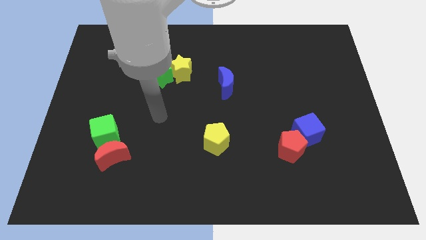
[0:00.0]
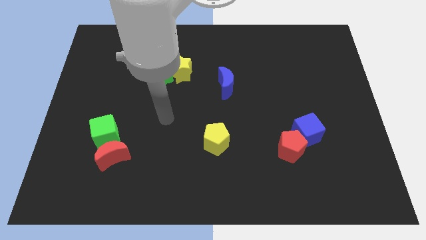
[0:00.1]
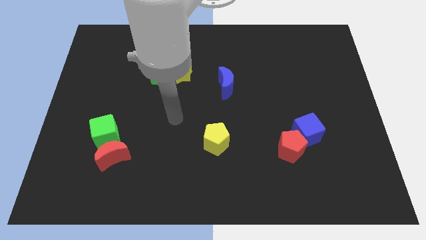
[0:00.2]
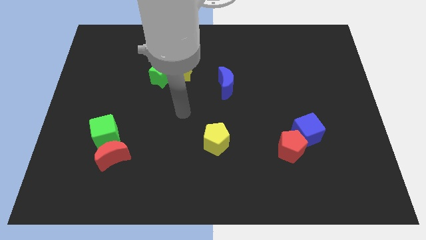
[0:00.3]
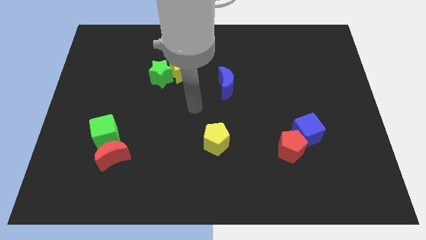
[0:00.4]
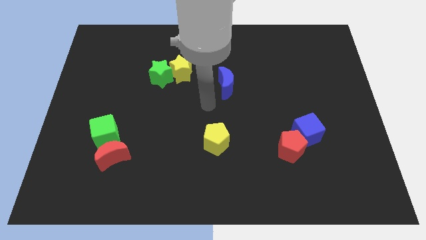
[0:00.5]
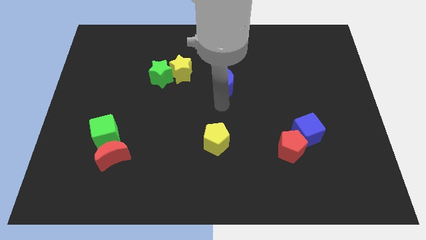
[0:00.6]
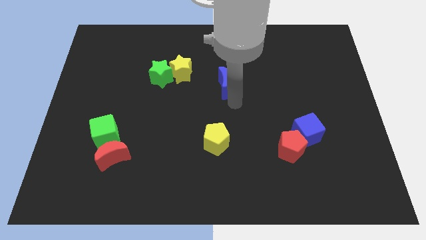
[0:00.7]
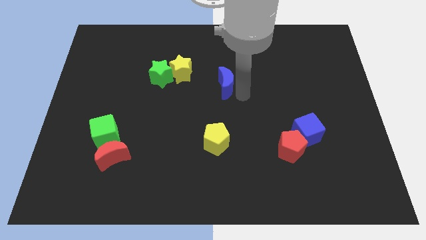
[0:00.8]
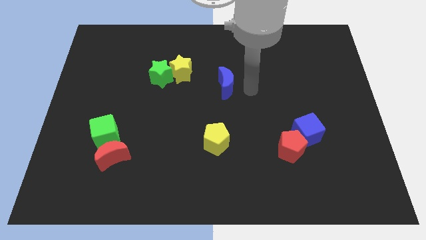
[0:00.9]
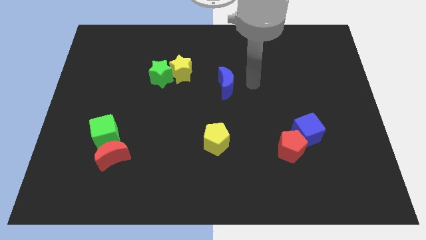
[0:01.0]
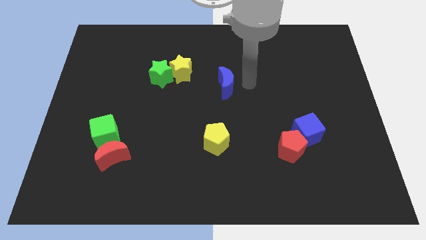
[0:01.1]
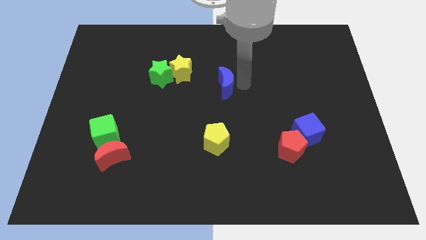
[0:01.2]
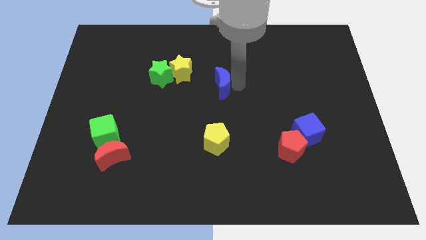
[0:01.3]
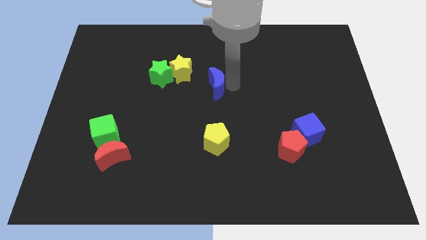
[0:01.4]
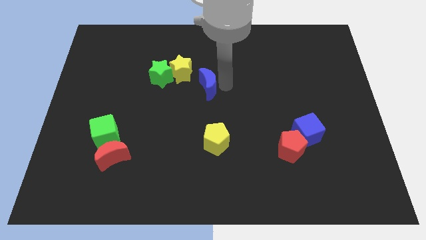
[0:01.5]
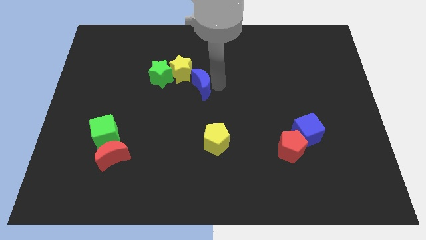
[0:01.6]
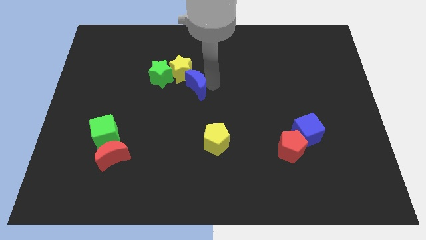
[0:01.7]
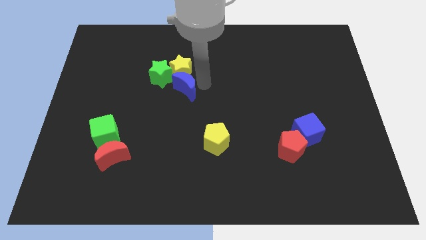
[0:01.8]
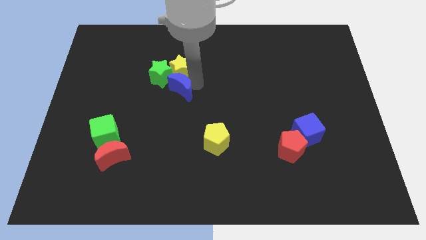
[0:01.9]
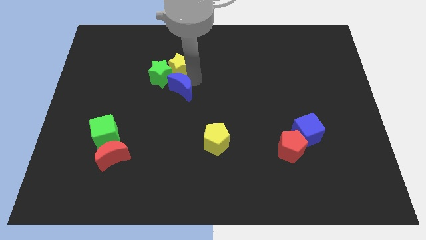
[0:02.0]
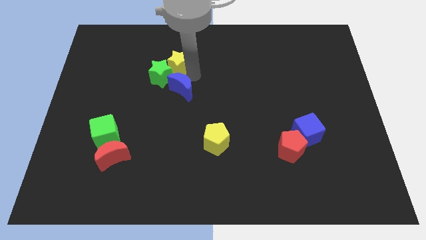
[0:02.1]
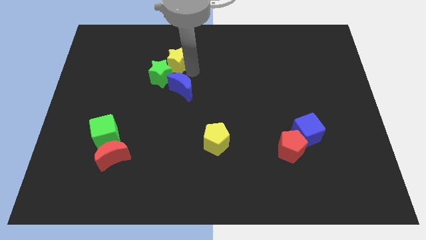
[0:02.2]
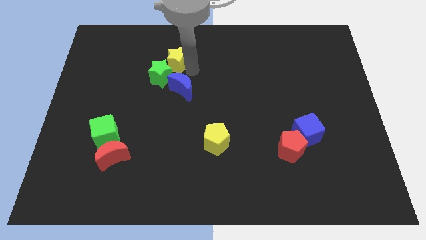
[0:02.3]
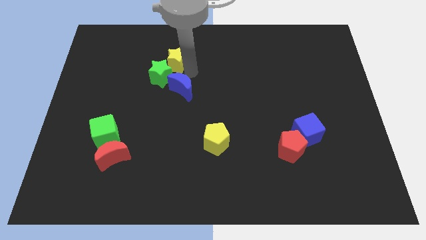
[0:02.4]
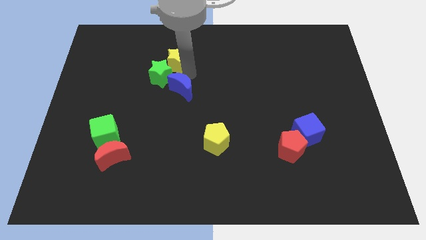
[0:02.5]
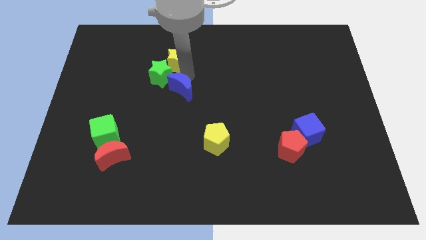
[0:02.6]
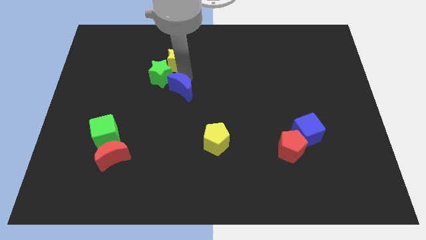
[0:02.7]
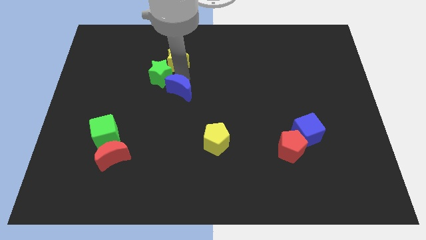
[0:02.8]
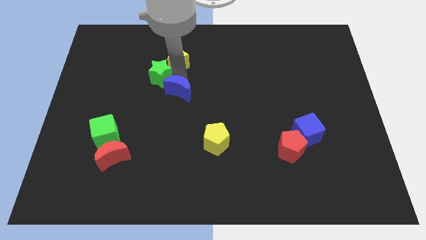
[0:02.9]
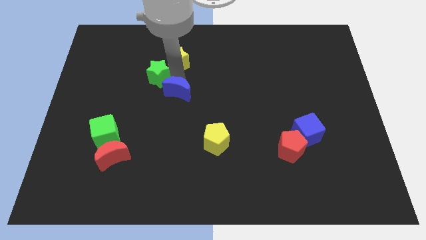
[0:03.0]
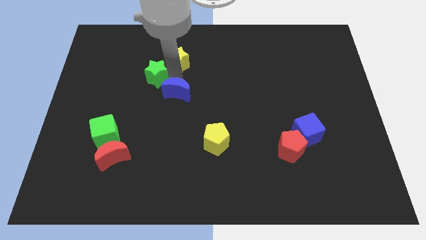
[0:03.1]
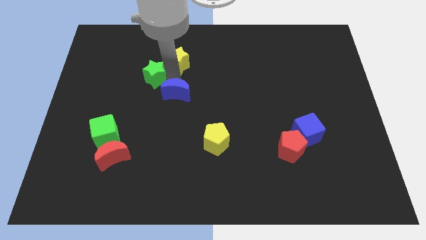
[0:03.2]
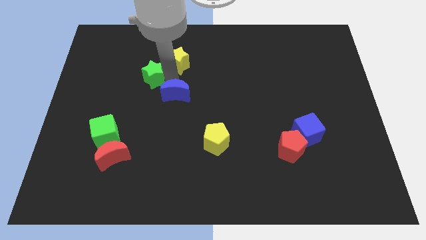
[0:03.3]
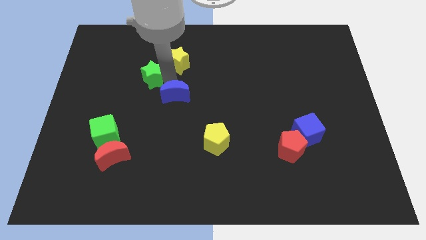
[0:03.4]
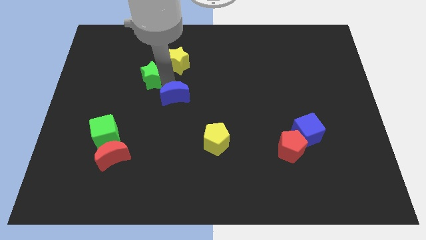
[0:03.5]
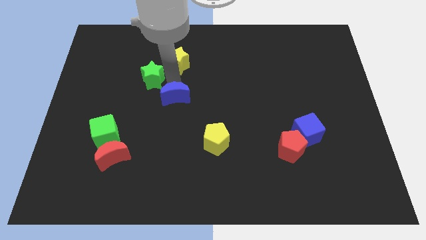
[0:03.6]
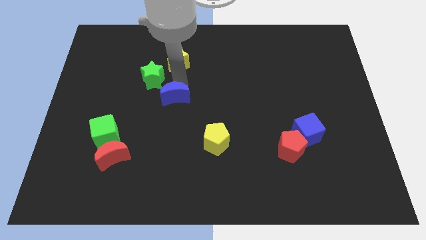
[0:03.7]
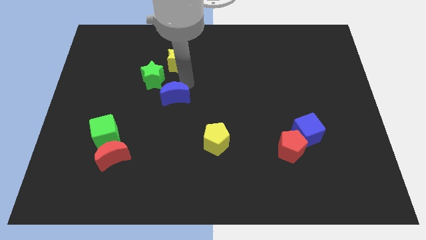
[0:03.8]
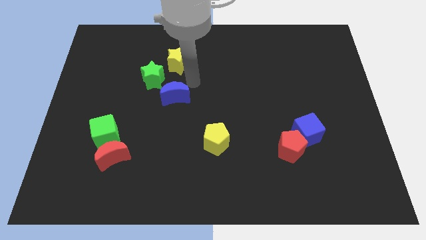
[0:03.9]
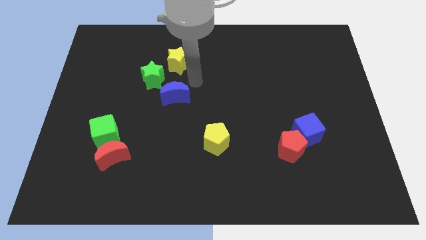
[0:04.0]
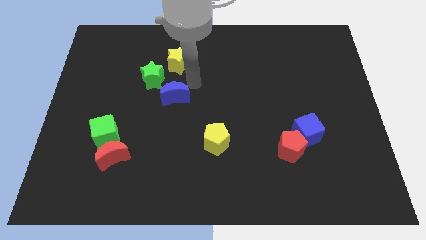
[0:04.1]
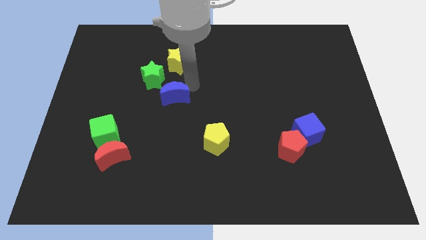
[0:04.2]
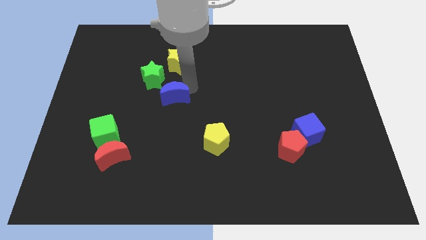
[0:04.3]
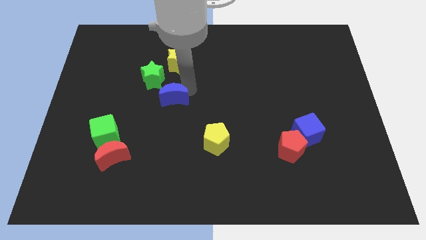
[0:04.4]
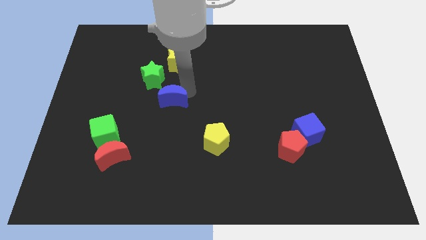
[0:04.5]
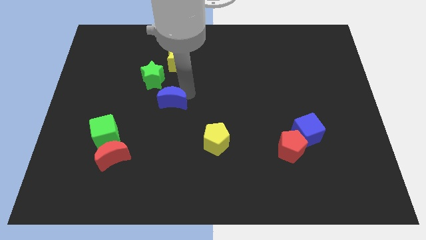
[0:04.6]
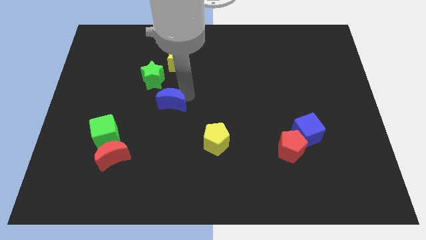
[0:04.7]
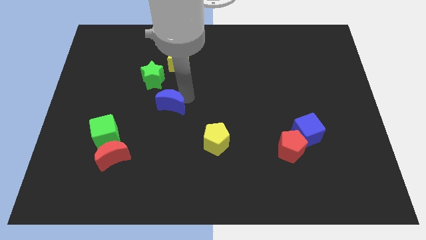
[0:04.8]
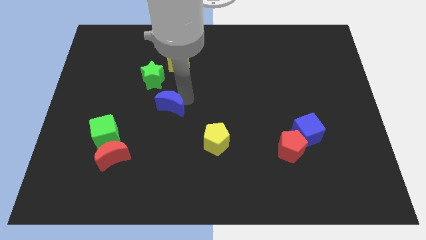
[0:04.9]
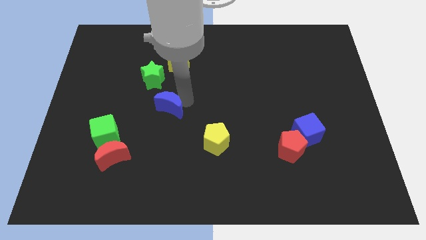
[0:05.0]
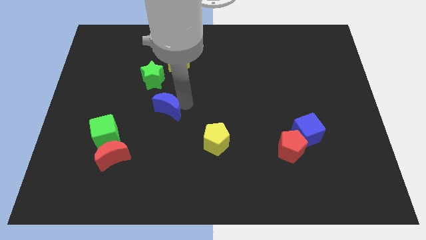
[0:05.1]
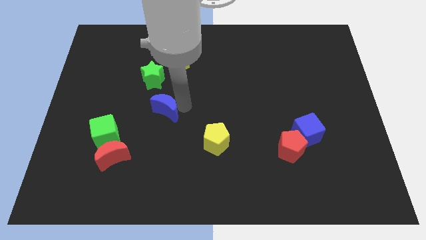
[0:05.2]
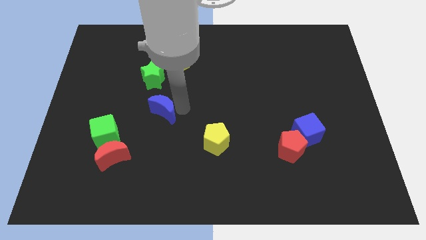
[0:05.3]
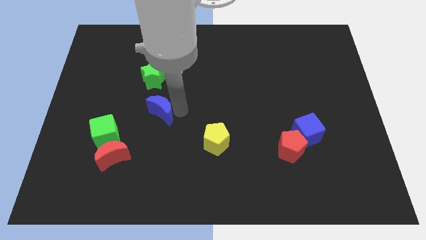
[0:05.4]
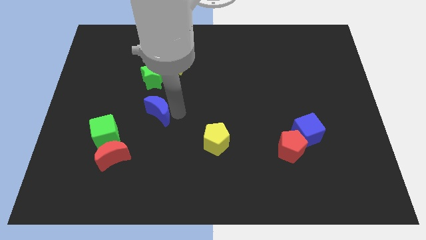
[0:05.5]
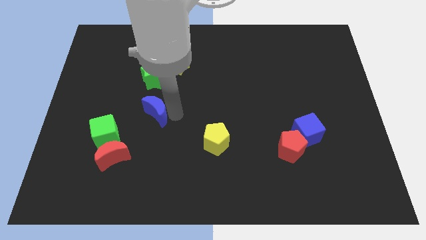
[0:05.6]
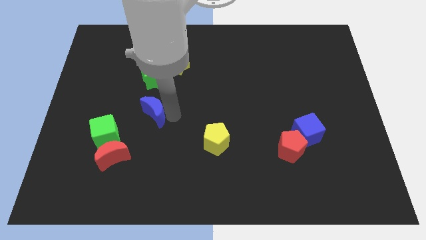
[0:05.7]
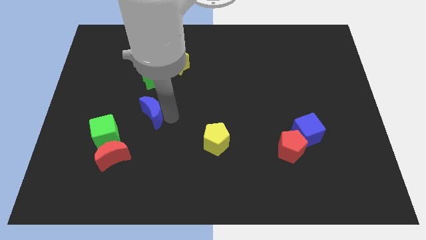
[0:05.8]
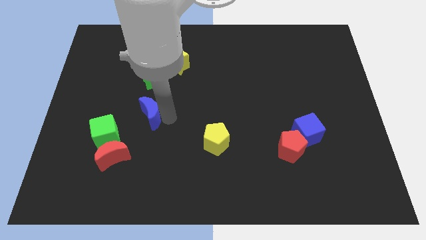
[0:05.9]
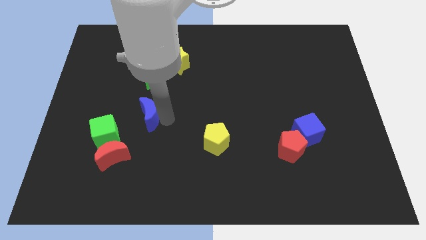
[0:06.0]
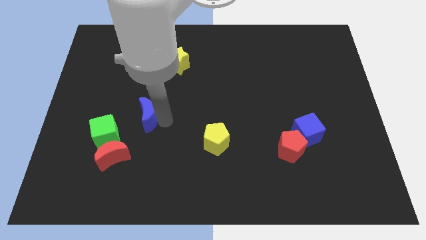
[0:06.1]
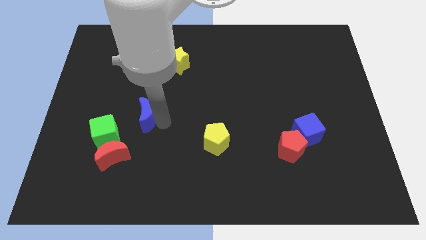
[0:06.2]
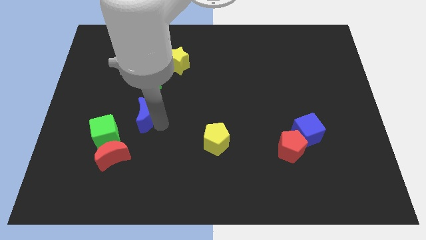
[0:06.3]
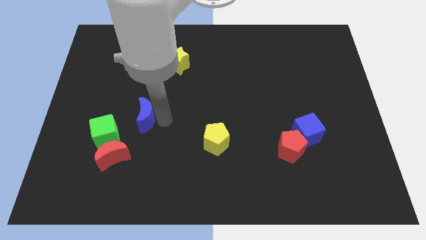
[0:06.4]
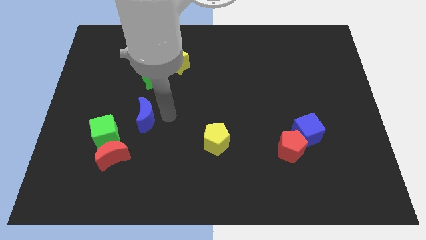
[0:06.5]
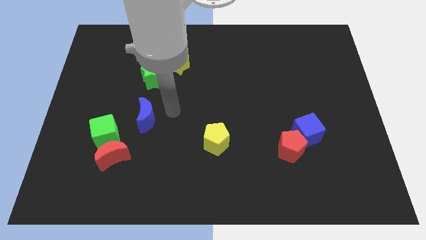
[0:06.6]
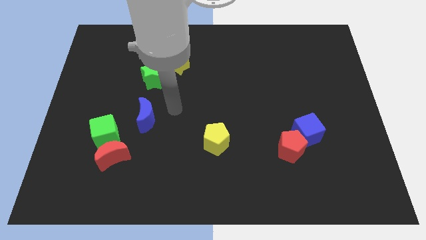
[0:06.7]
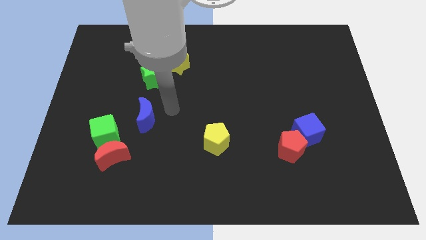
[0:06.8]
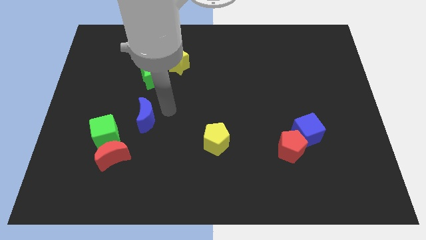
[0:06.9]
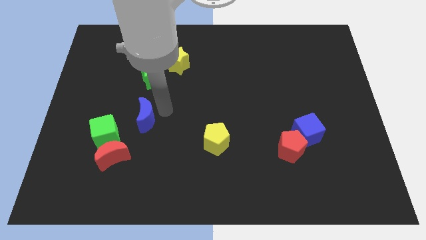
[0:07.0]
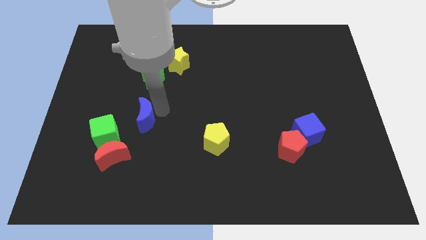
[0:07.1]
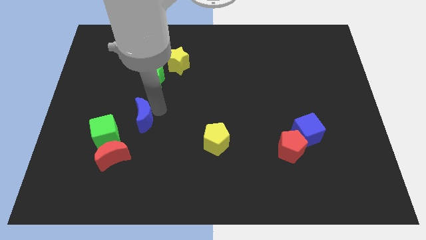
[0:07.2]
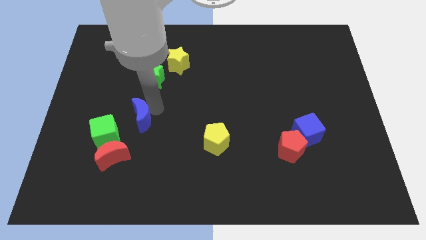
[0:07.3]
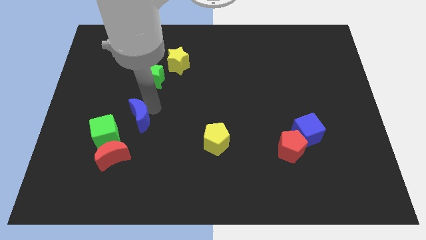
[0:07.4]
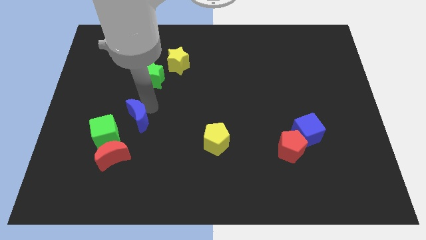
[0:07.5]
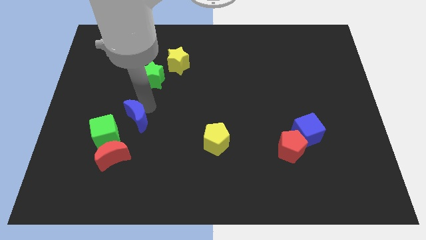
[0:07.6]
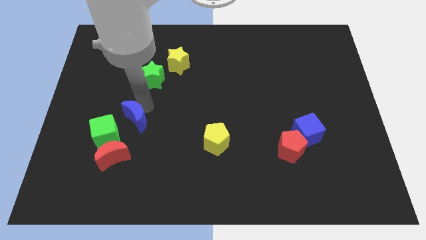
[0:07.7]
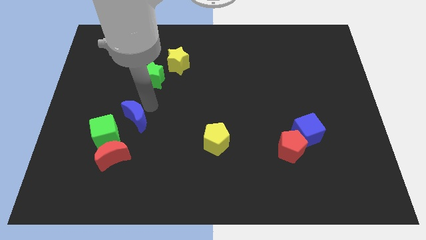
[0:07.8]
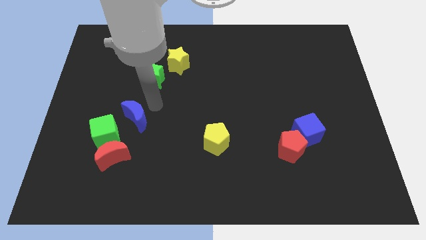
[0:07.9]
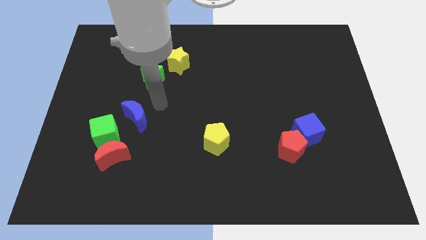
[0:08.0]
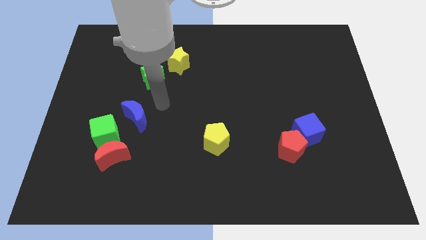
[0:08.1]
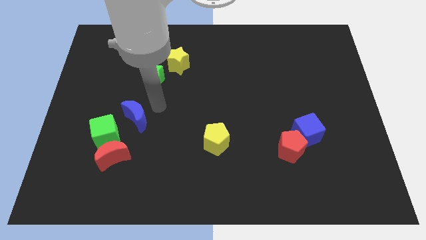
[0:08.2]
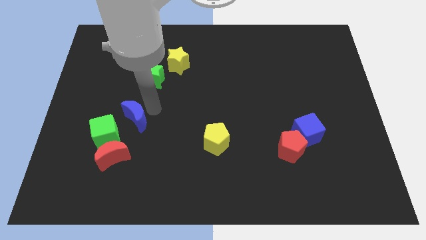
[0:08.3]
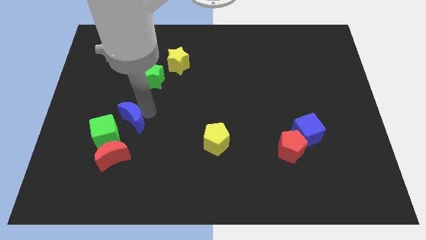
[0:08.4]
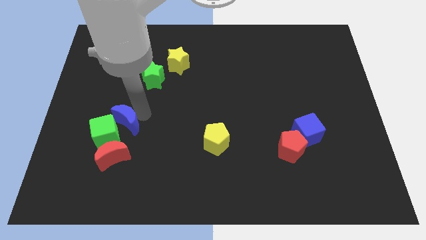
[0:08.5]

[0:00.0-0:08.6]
slide the blue moon close to the green cube
